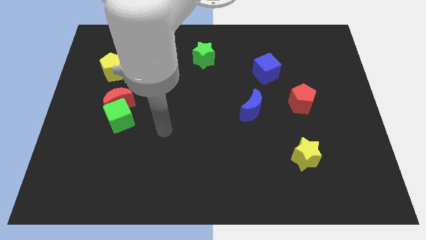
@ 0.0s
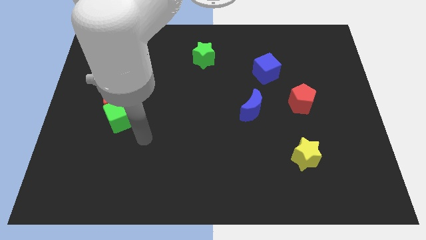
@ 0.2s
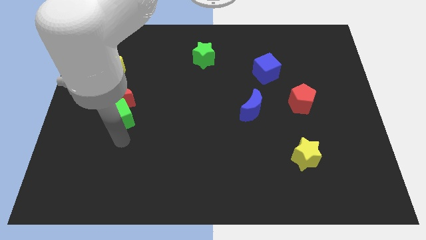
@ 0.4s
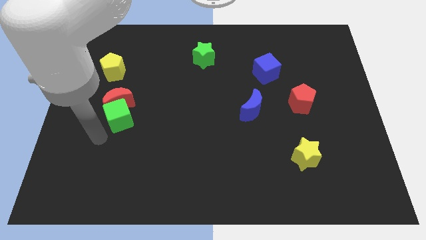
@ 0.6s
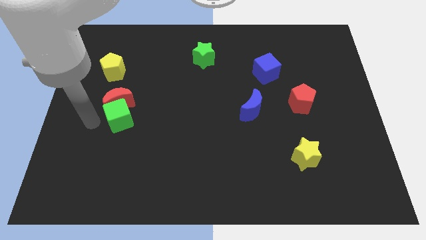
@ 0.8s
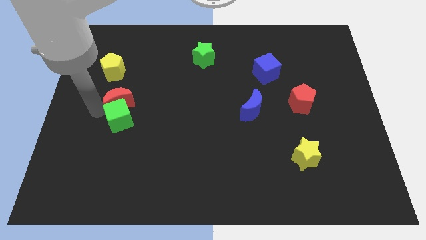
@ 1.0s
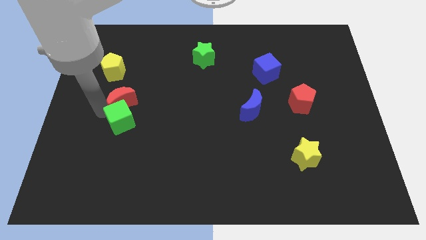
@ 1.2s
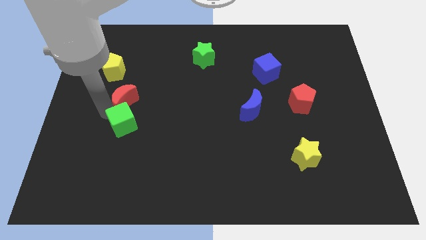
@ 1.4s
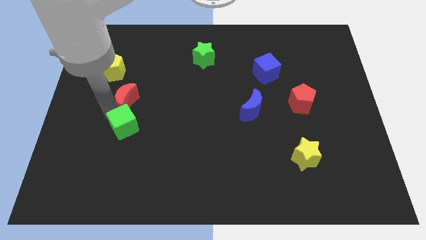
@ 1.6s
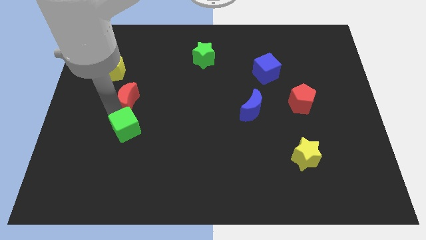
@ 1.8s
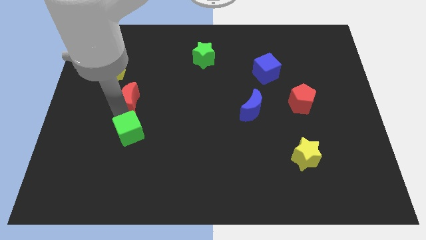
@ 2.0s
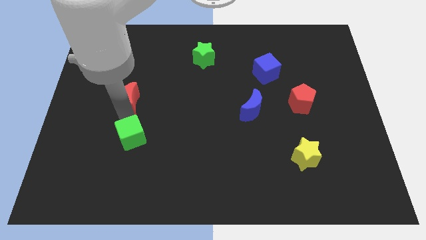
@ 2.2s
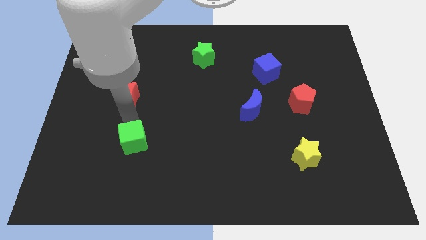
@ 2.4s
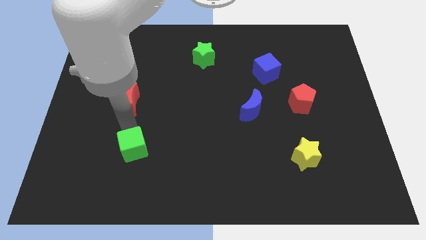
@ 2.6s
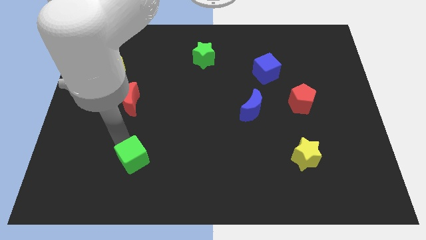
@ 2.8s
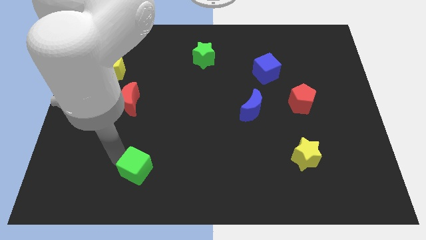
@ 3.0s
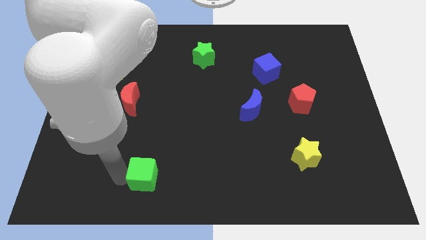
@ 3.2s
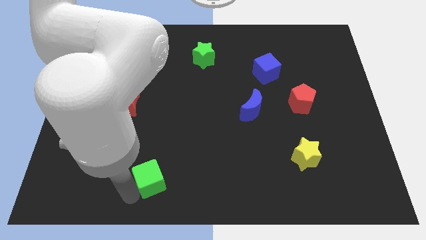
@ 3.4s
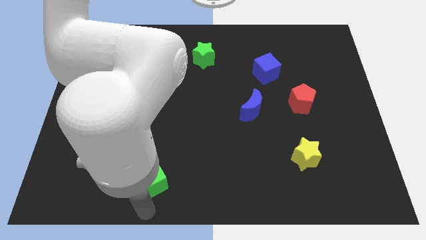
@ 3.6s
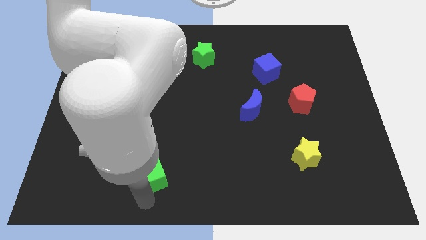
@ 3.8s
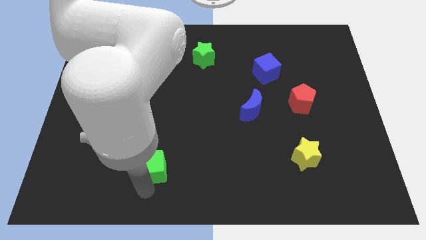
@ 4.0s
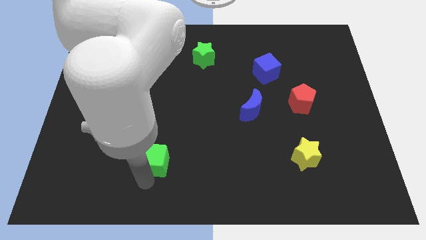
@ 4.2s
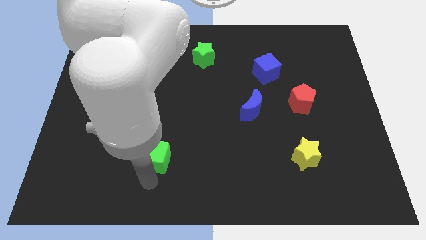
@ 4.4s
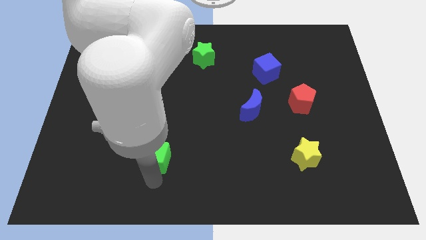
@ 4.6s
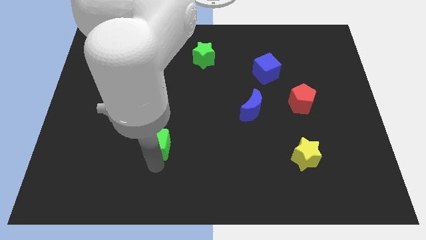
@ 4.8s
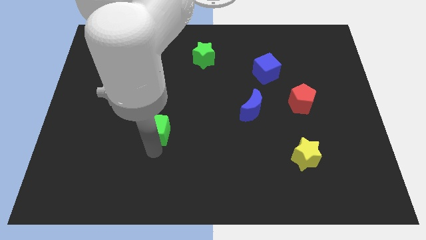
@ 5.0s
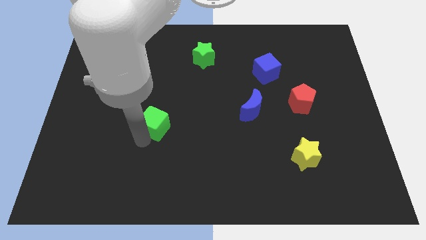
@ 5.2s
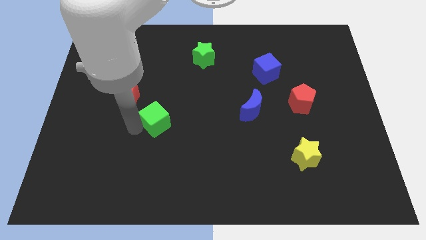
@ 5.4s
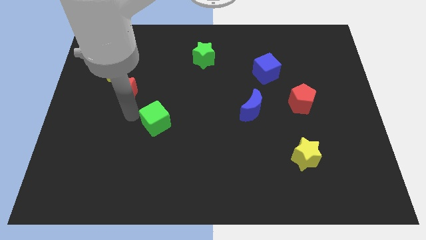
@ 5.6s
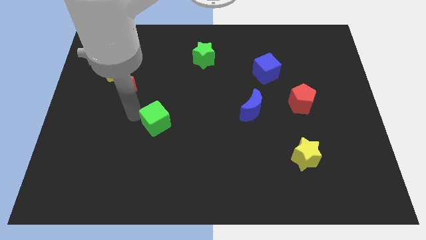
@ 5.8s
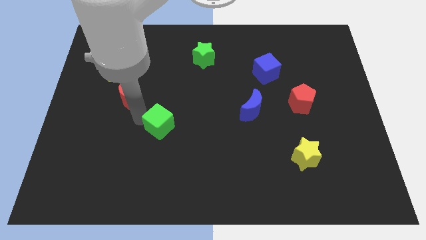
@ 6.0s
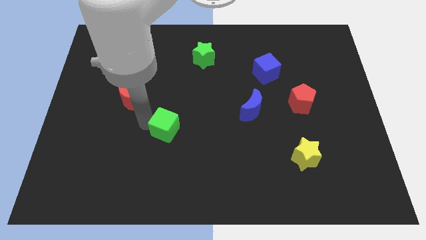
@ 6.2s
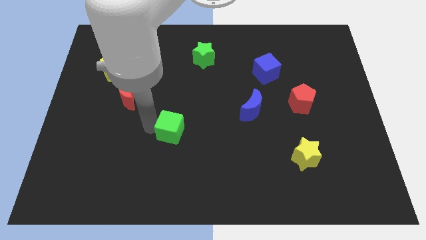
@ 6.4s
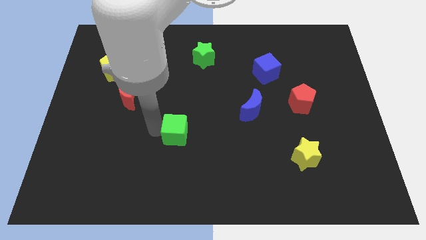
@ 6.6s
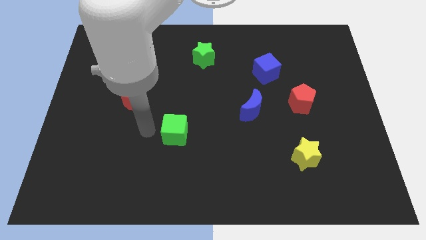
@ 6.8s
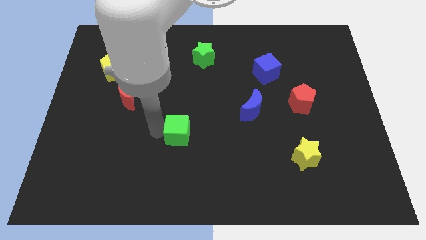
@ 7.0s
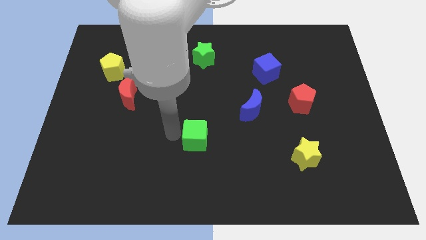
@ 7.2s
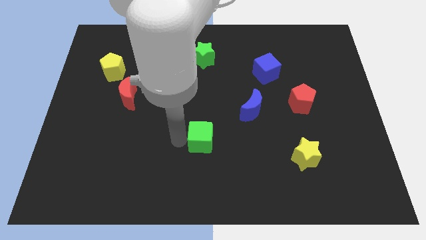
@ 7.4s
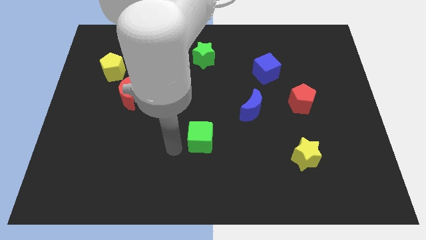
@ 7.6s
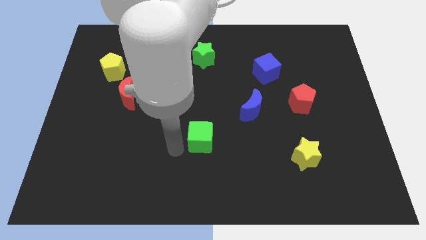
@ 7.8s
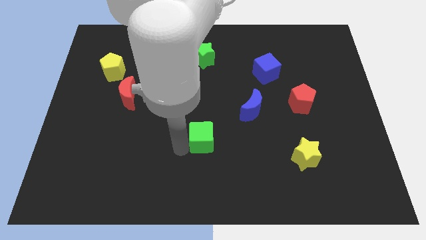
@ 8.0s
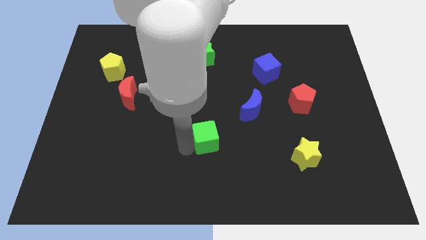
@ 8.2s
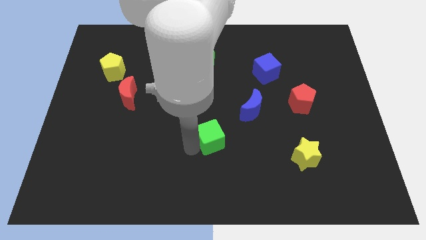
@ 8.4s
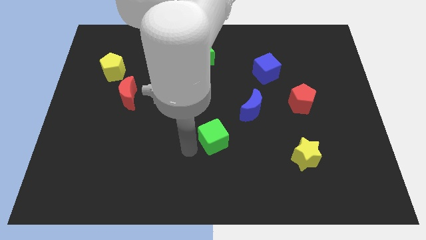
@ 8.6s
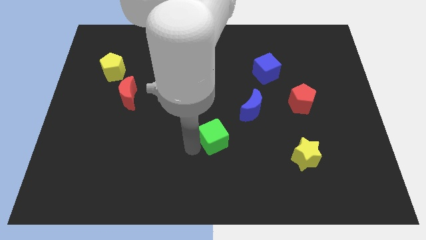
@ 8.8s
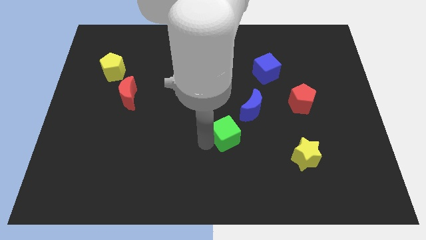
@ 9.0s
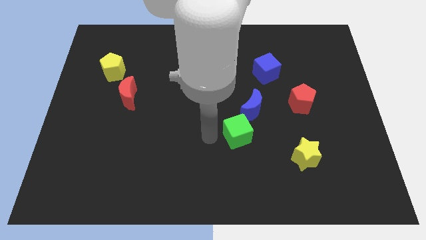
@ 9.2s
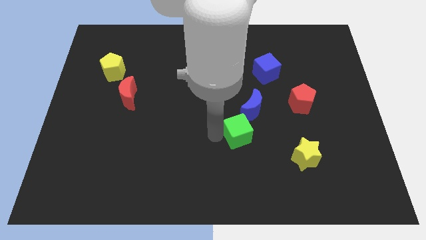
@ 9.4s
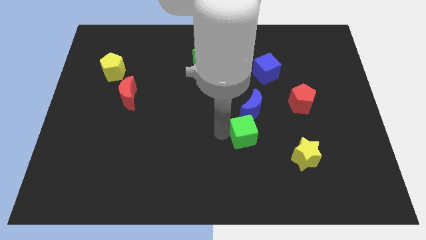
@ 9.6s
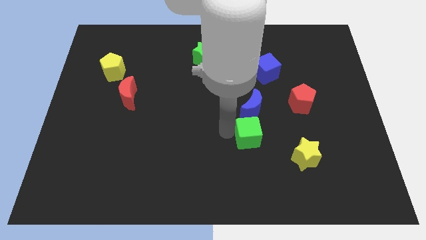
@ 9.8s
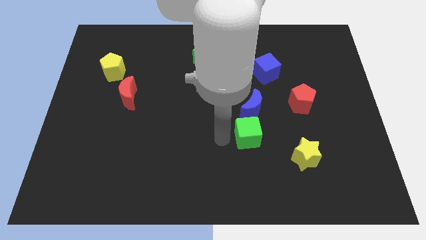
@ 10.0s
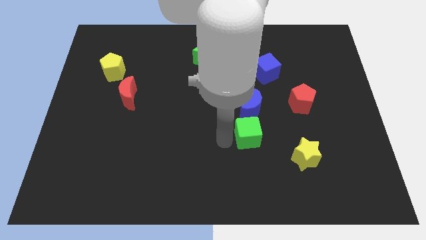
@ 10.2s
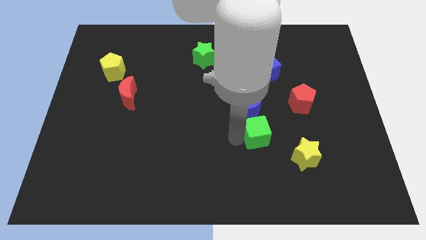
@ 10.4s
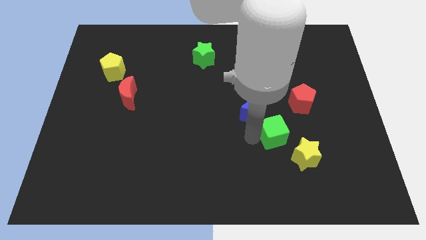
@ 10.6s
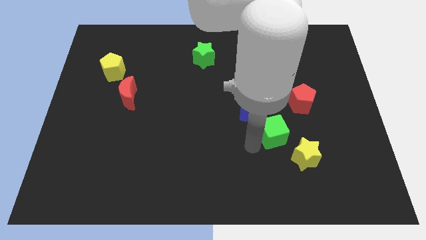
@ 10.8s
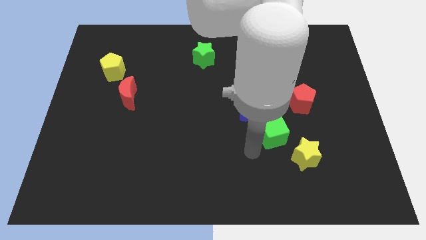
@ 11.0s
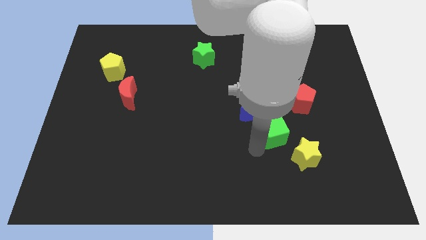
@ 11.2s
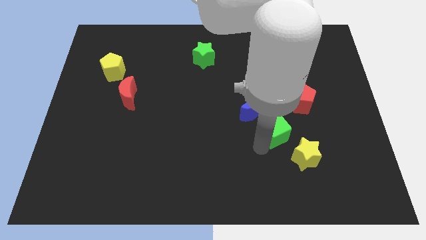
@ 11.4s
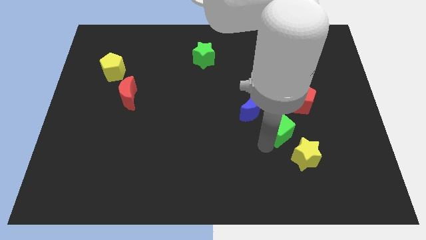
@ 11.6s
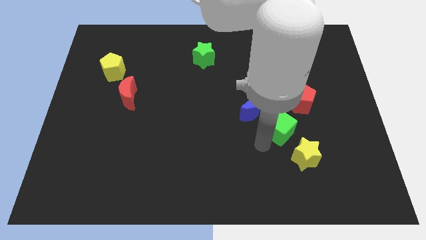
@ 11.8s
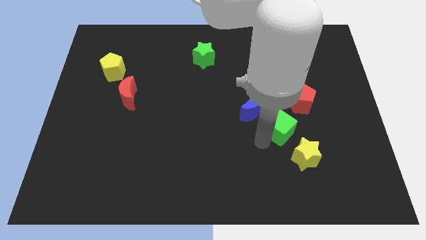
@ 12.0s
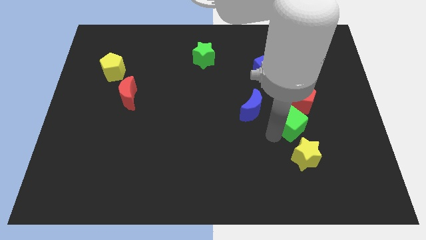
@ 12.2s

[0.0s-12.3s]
put the green cube just right of the blue moon

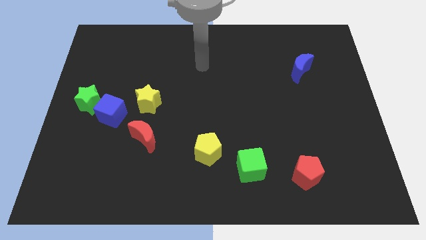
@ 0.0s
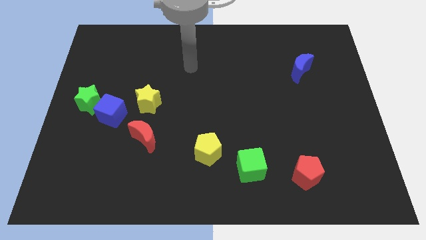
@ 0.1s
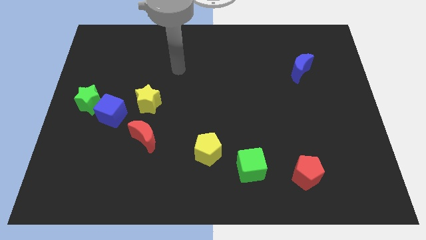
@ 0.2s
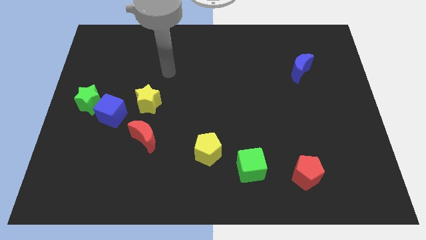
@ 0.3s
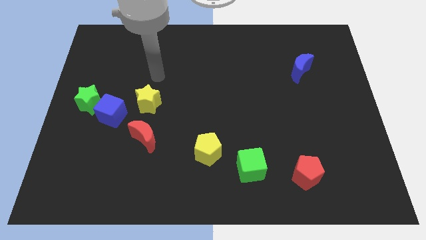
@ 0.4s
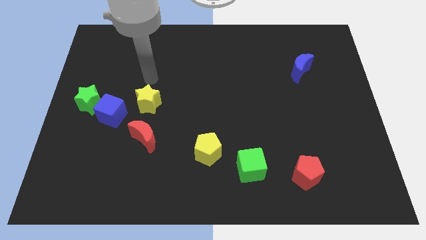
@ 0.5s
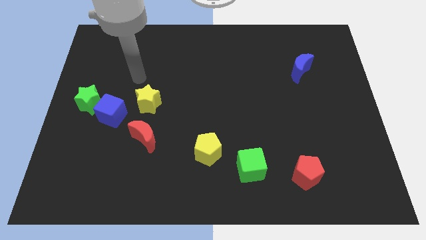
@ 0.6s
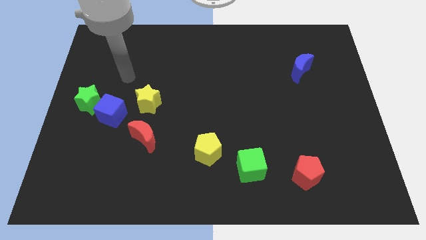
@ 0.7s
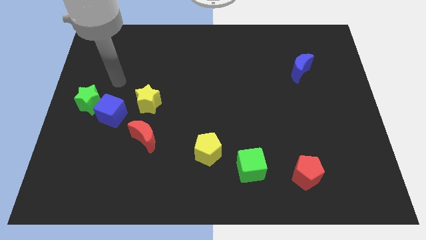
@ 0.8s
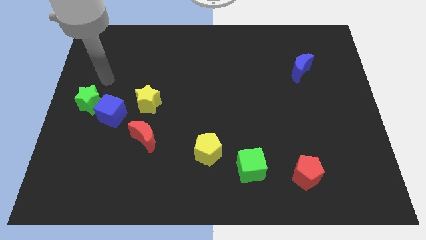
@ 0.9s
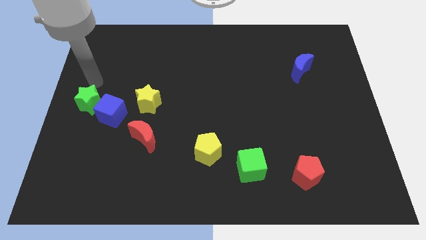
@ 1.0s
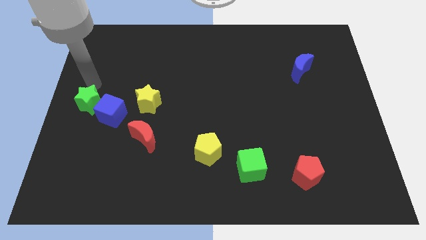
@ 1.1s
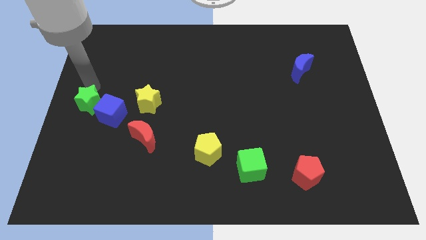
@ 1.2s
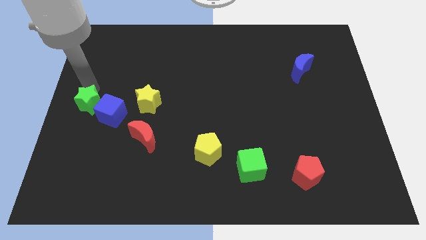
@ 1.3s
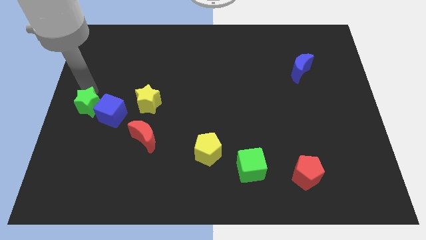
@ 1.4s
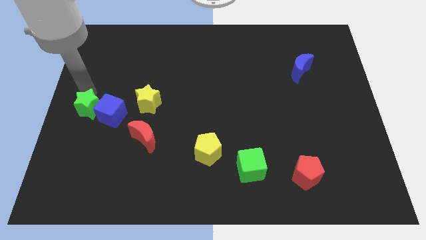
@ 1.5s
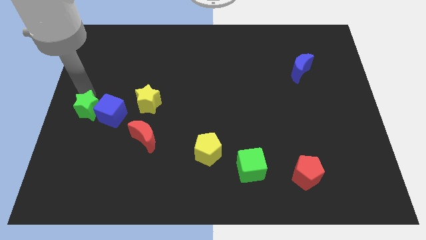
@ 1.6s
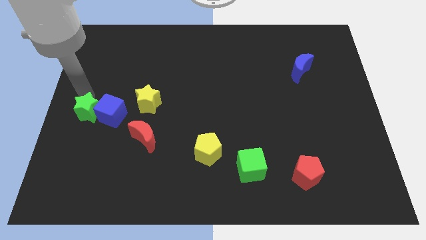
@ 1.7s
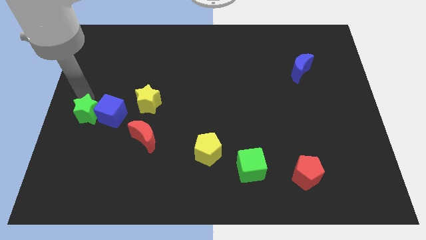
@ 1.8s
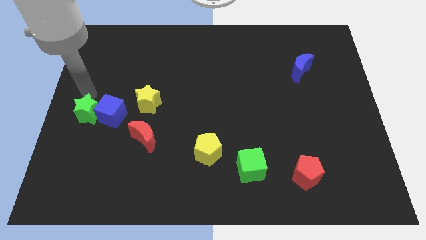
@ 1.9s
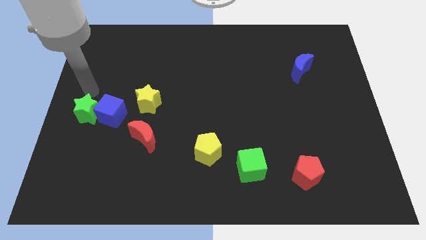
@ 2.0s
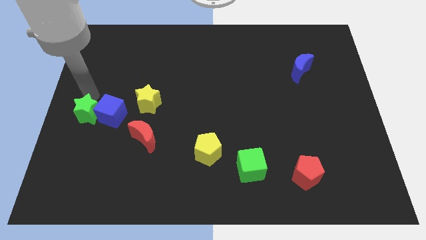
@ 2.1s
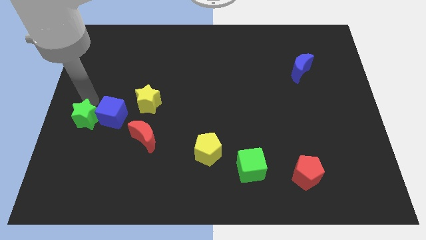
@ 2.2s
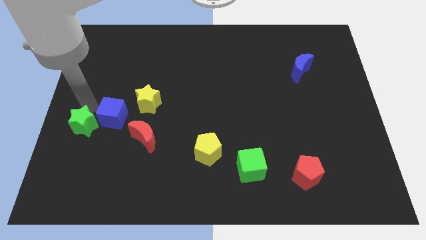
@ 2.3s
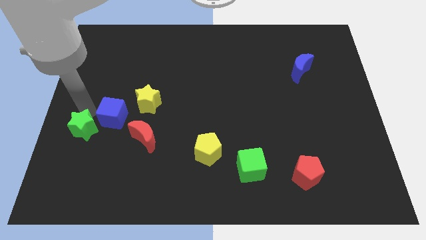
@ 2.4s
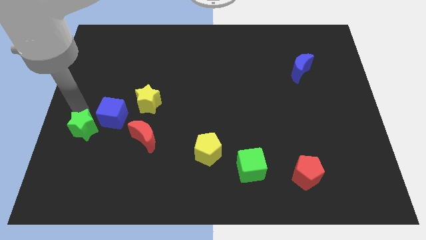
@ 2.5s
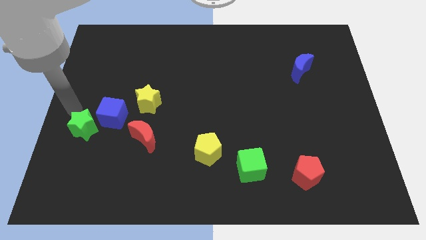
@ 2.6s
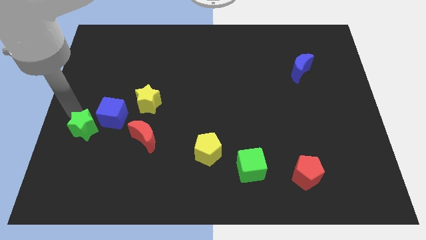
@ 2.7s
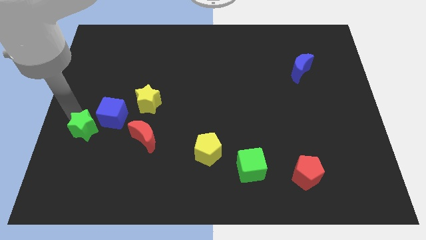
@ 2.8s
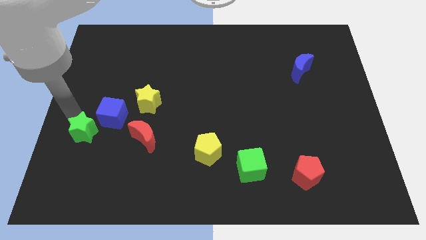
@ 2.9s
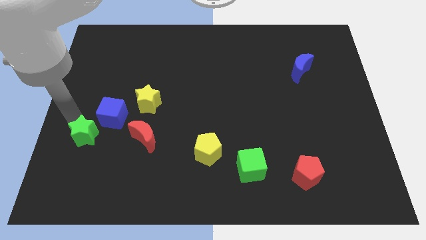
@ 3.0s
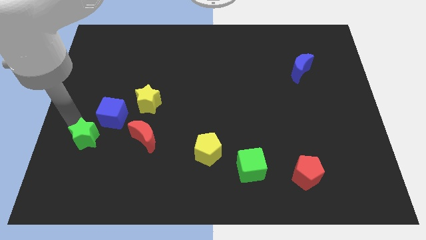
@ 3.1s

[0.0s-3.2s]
put the green star to the bottom side of the blue cube
